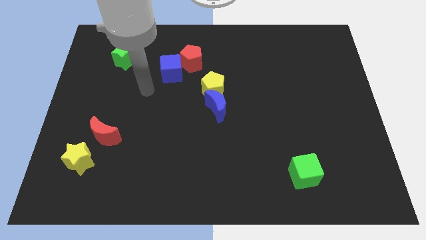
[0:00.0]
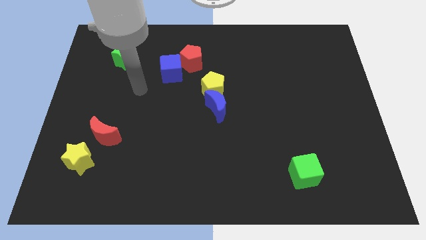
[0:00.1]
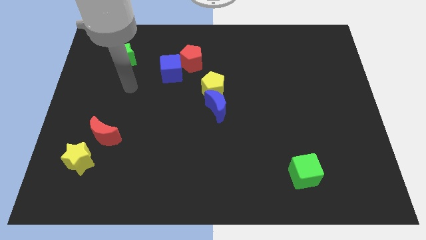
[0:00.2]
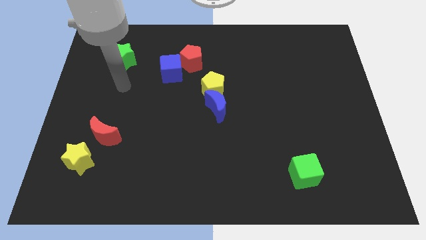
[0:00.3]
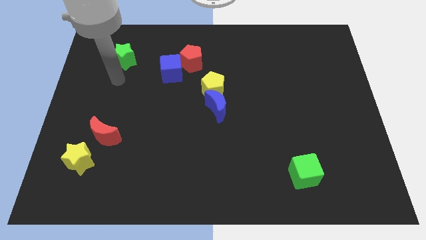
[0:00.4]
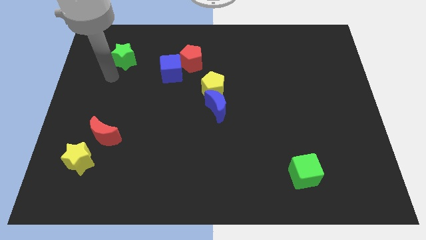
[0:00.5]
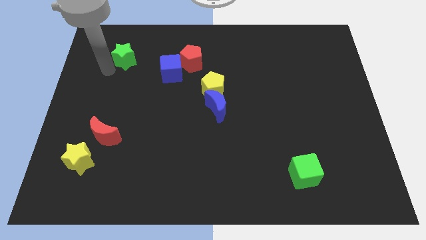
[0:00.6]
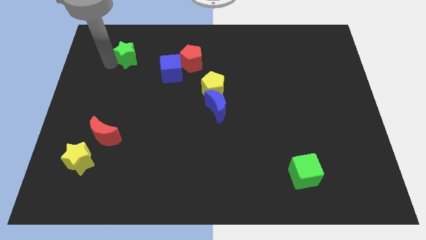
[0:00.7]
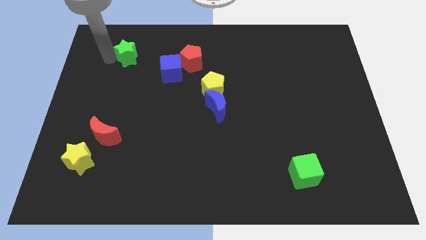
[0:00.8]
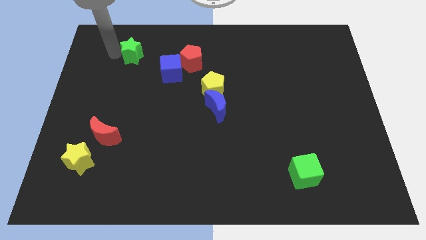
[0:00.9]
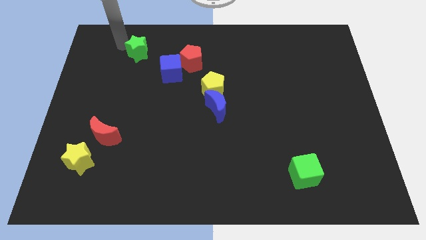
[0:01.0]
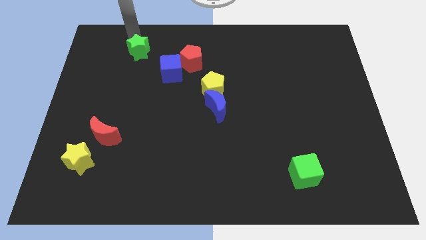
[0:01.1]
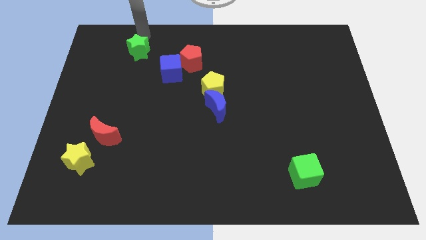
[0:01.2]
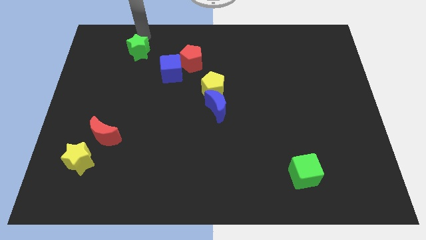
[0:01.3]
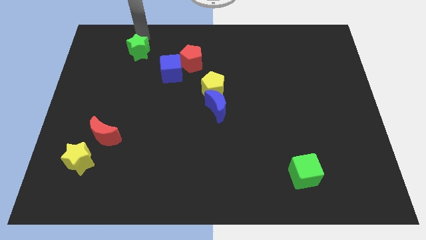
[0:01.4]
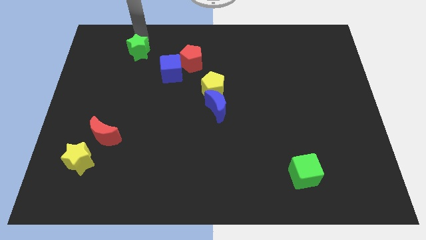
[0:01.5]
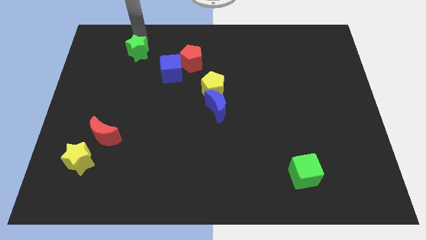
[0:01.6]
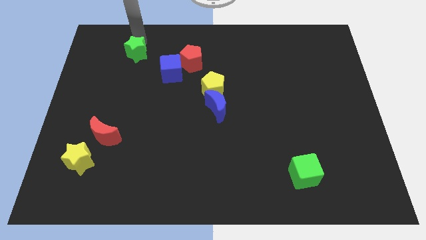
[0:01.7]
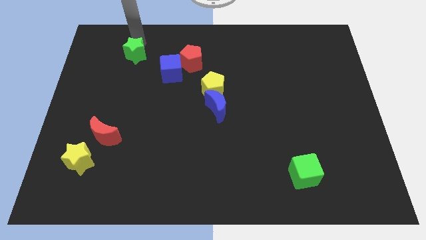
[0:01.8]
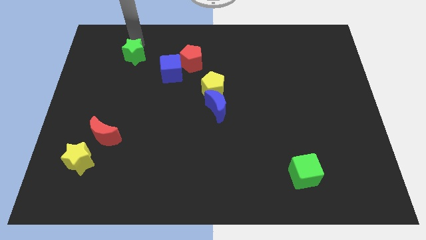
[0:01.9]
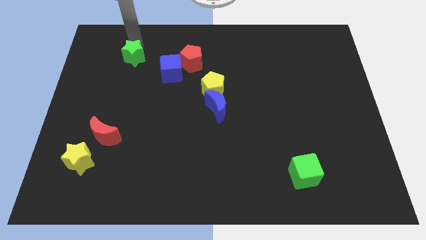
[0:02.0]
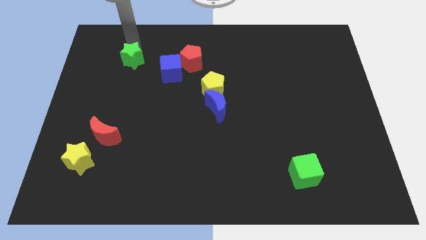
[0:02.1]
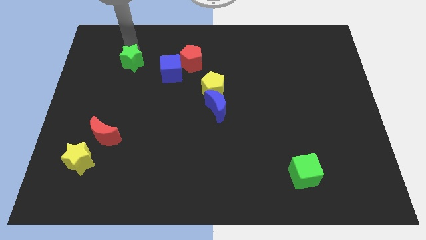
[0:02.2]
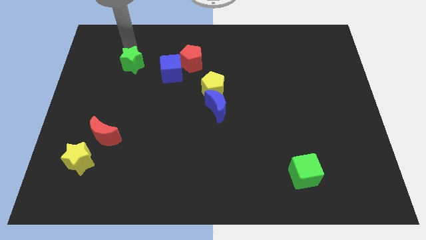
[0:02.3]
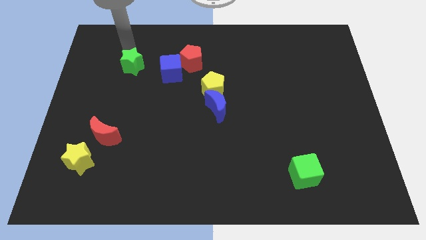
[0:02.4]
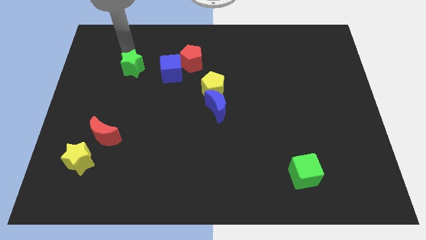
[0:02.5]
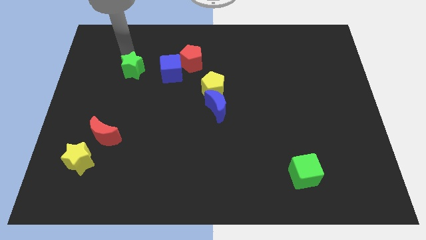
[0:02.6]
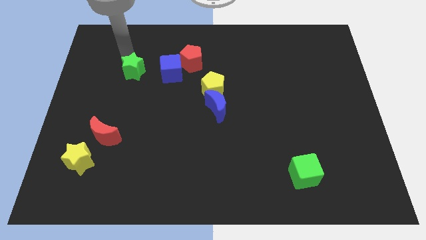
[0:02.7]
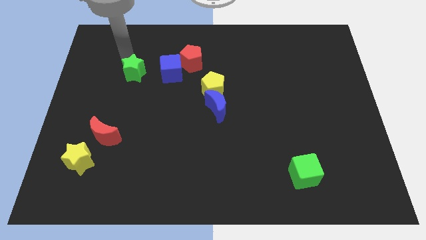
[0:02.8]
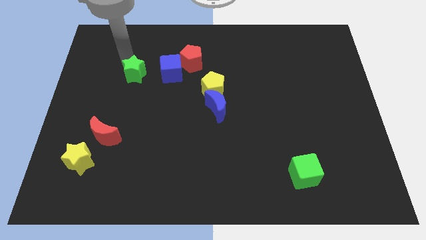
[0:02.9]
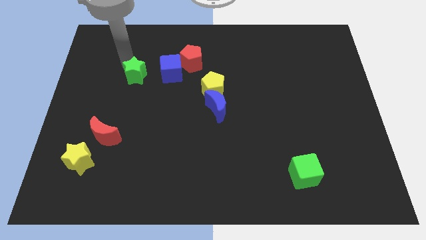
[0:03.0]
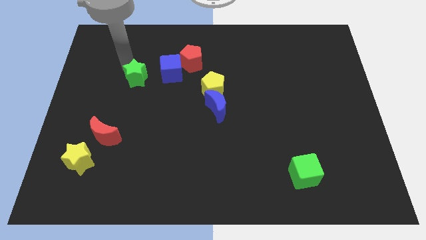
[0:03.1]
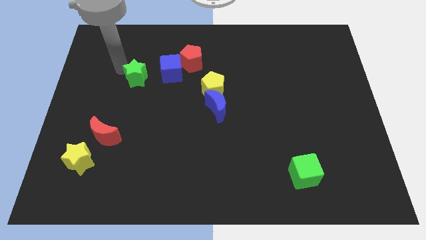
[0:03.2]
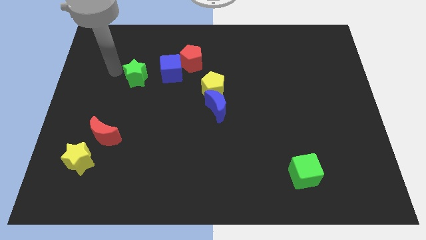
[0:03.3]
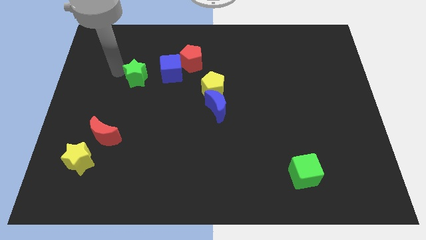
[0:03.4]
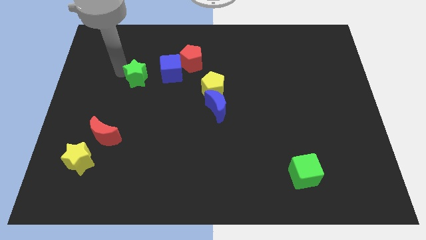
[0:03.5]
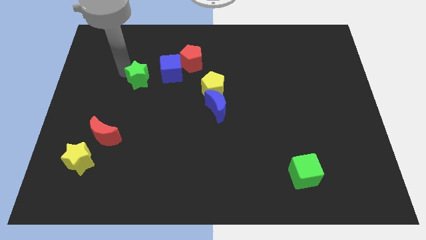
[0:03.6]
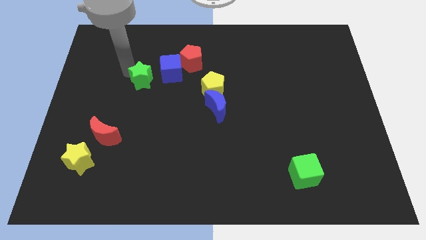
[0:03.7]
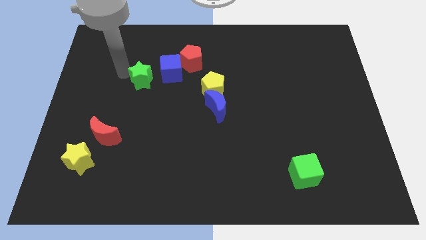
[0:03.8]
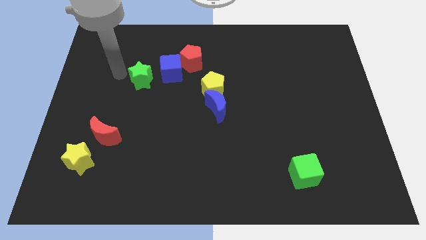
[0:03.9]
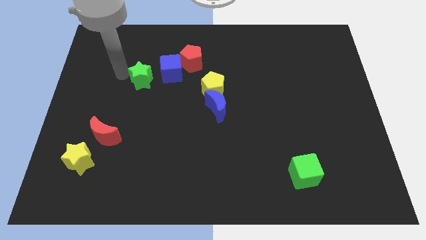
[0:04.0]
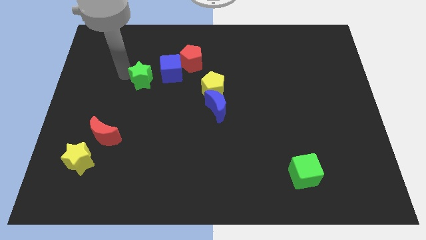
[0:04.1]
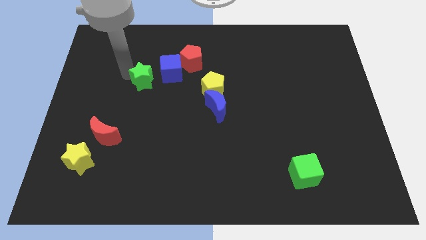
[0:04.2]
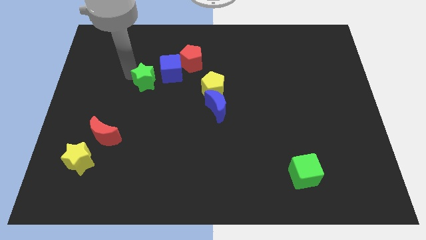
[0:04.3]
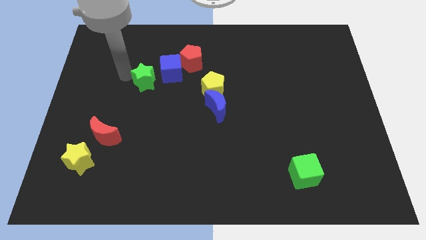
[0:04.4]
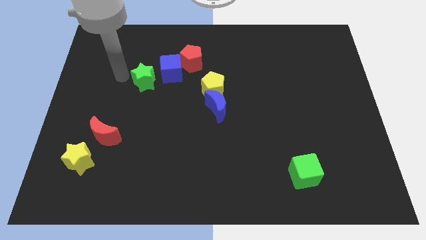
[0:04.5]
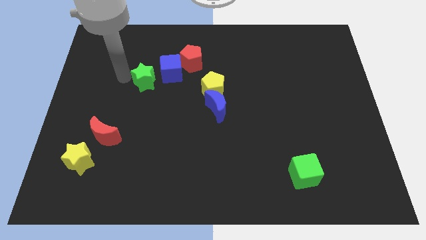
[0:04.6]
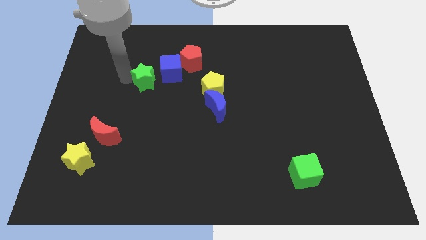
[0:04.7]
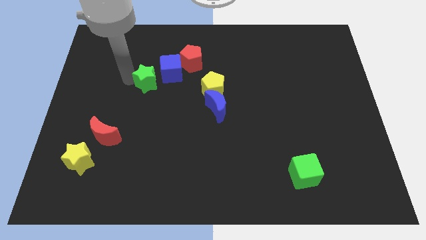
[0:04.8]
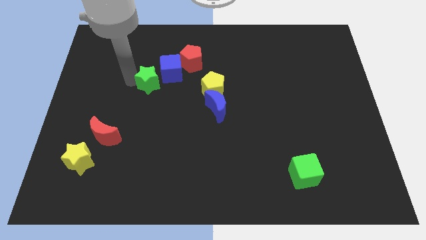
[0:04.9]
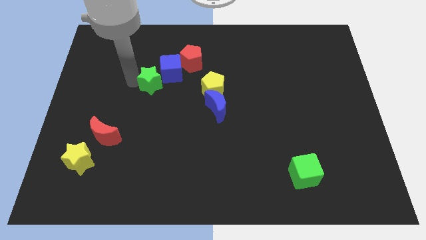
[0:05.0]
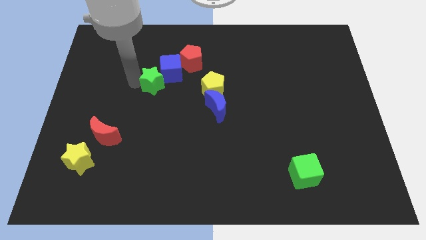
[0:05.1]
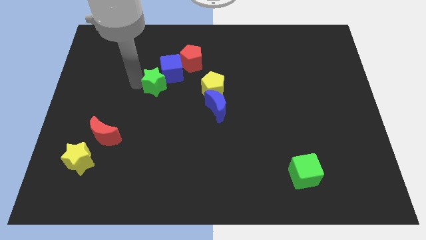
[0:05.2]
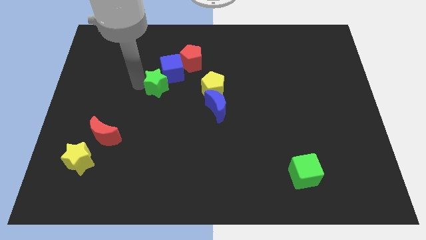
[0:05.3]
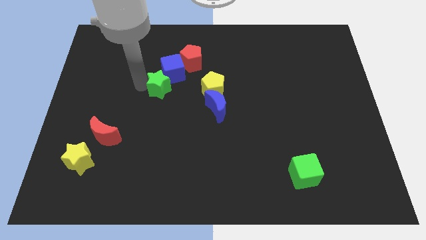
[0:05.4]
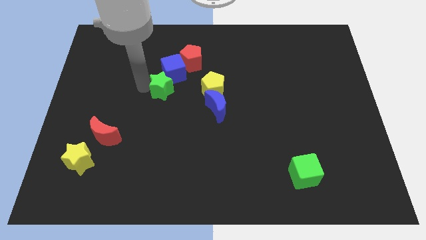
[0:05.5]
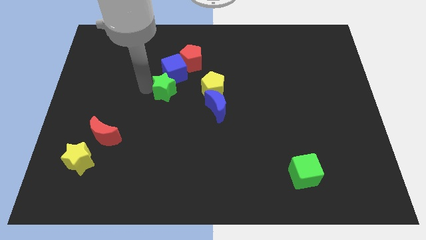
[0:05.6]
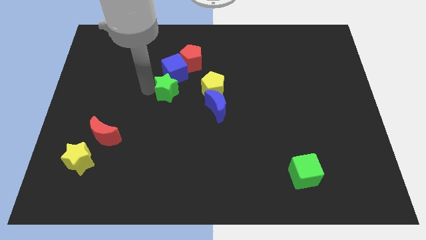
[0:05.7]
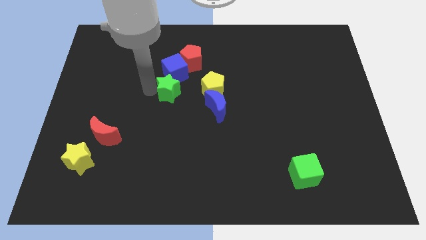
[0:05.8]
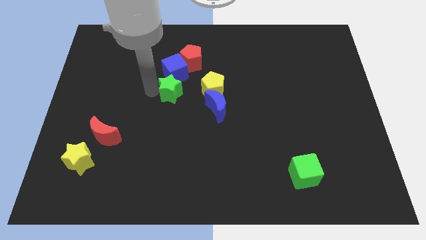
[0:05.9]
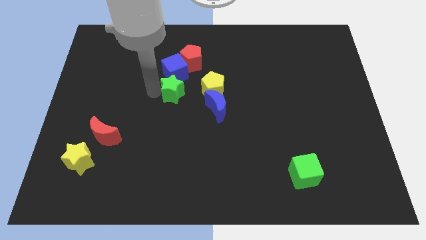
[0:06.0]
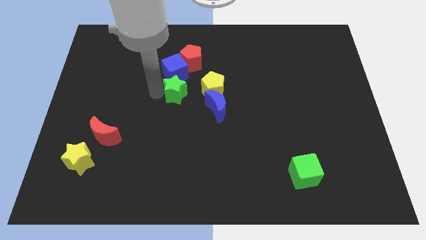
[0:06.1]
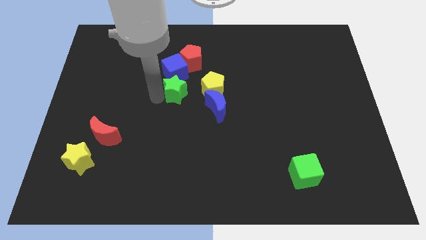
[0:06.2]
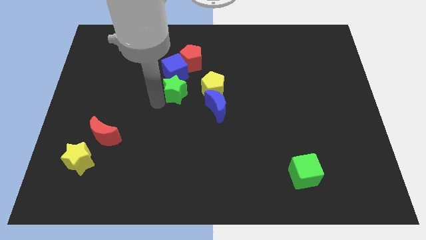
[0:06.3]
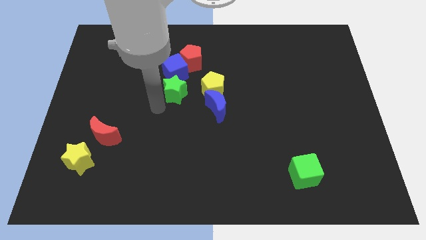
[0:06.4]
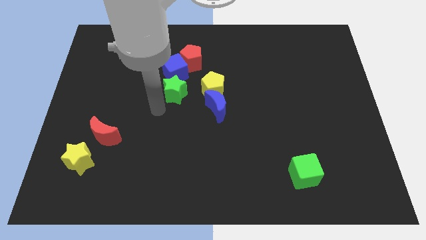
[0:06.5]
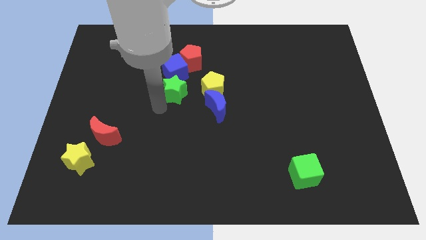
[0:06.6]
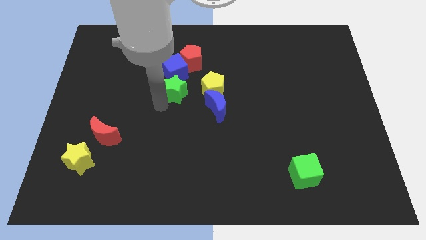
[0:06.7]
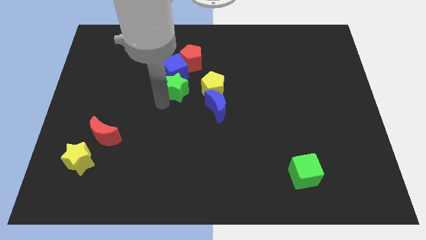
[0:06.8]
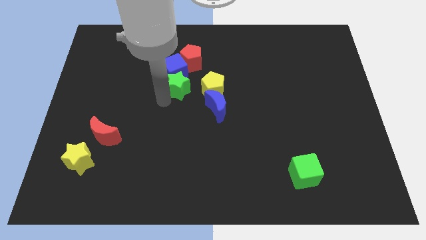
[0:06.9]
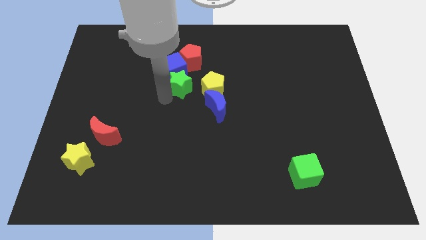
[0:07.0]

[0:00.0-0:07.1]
put the green star to the top left side of the yellow pentagon
